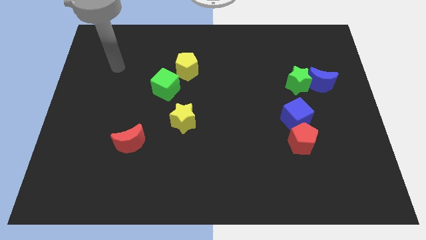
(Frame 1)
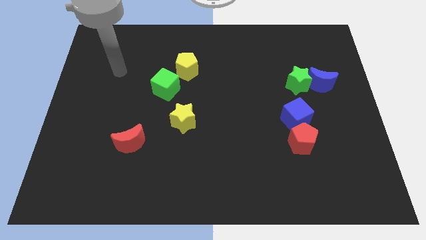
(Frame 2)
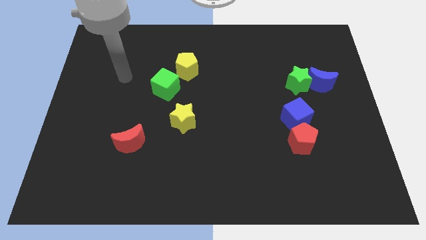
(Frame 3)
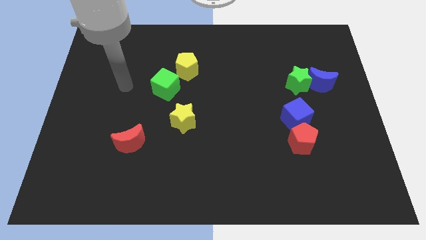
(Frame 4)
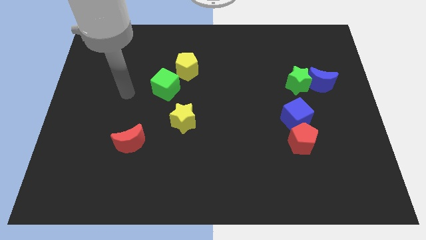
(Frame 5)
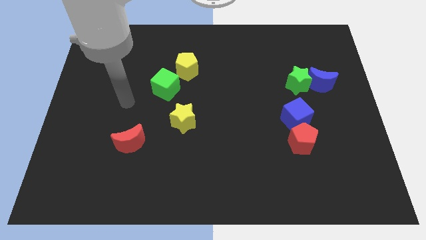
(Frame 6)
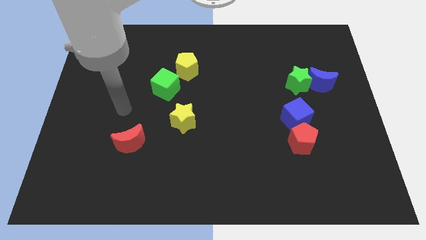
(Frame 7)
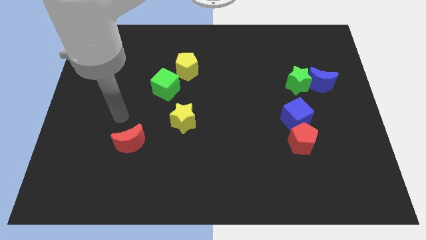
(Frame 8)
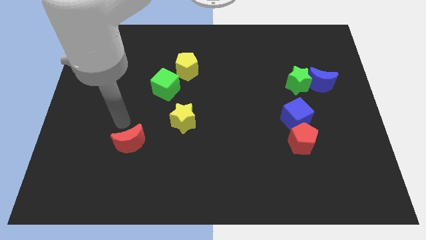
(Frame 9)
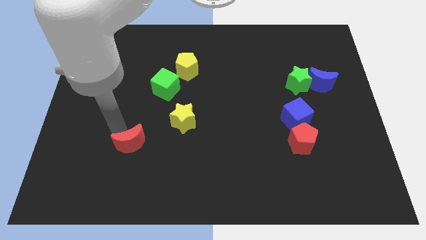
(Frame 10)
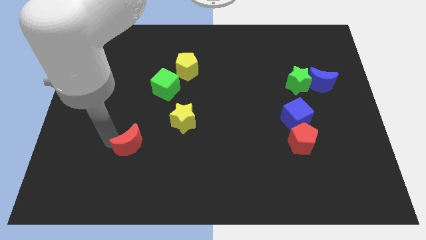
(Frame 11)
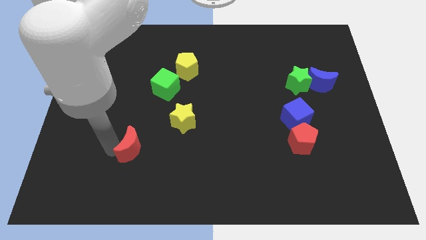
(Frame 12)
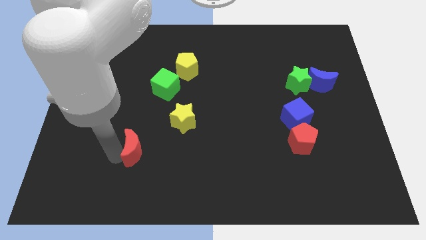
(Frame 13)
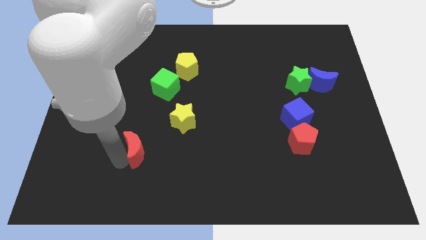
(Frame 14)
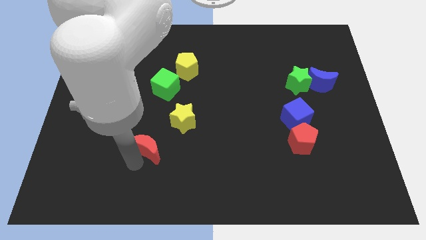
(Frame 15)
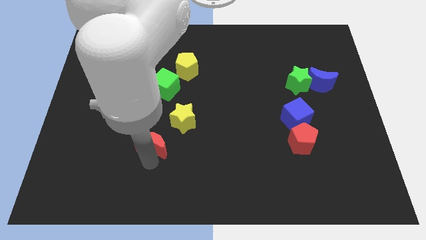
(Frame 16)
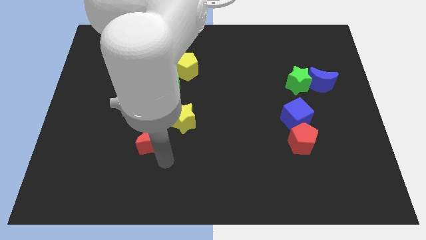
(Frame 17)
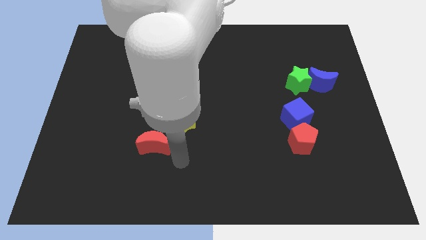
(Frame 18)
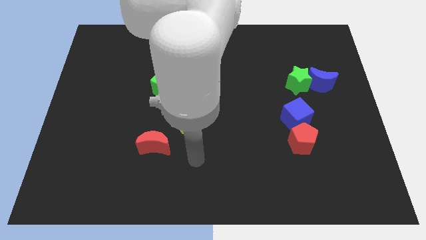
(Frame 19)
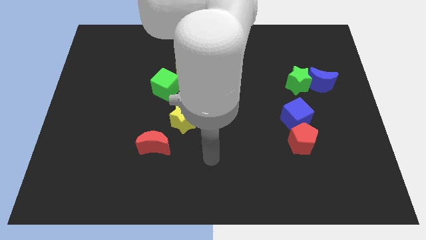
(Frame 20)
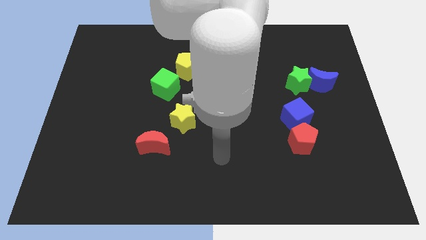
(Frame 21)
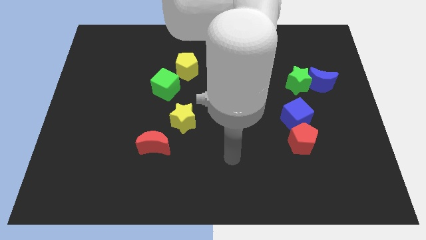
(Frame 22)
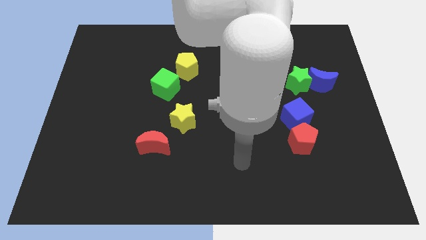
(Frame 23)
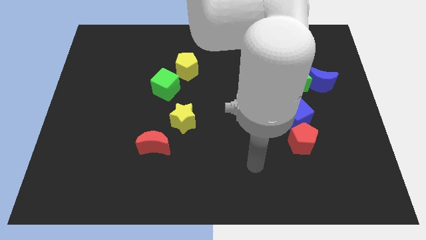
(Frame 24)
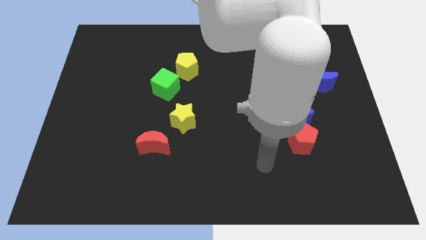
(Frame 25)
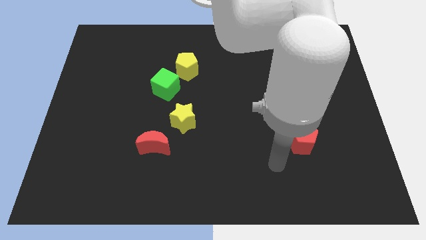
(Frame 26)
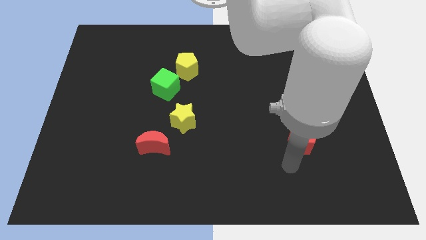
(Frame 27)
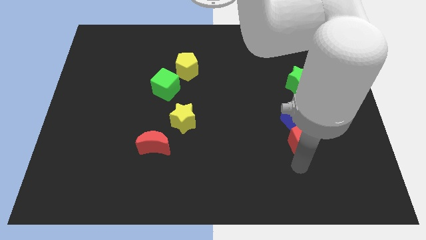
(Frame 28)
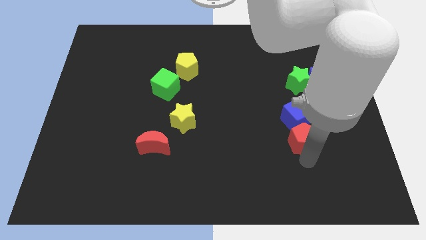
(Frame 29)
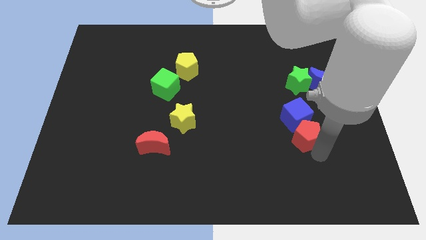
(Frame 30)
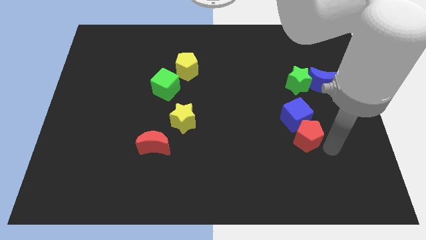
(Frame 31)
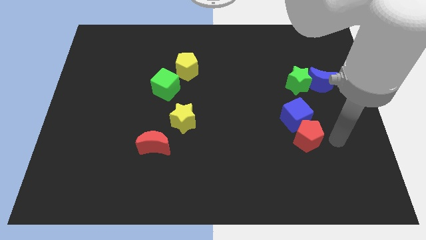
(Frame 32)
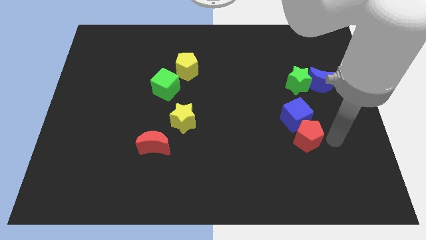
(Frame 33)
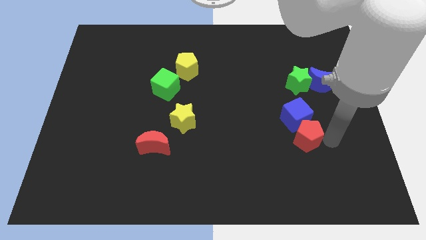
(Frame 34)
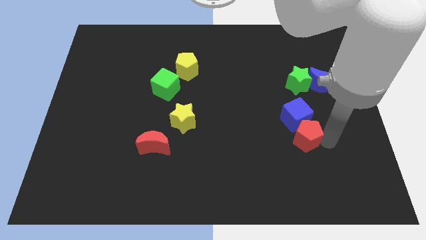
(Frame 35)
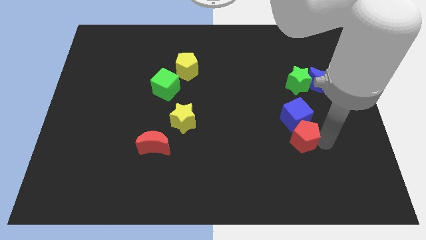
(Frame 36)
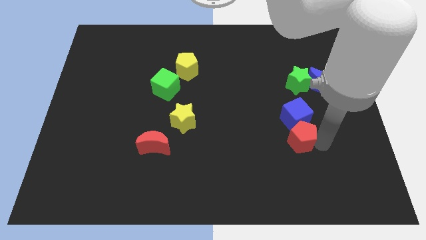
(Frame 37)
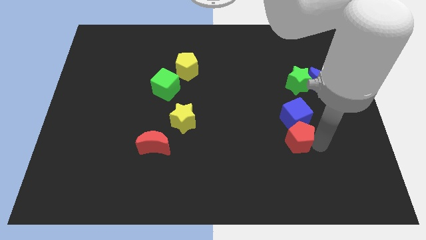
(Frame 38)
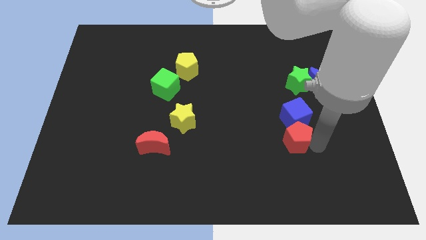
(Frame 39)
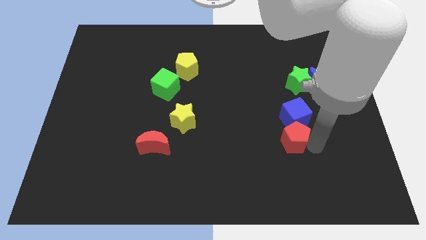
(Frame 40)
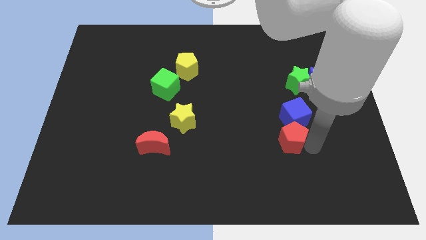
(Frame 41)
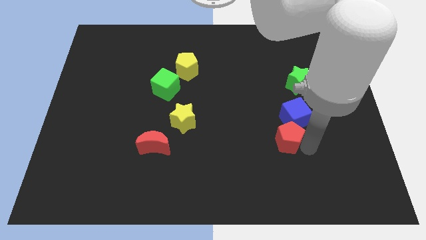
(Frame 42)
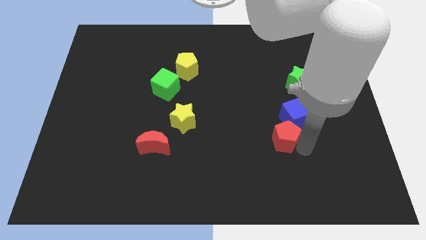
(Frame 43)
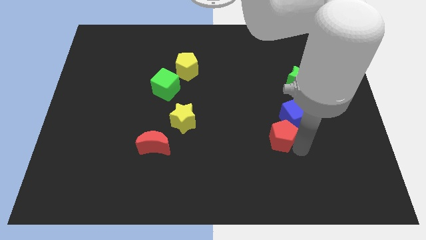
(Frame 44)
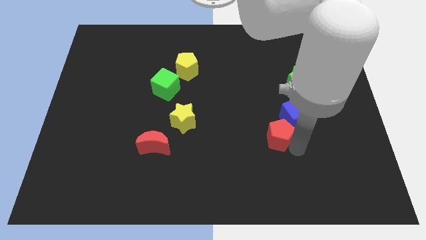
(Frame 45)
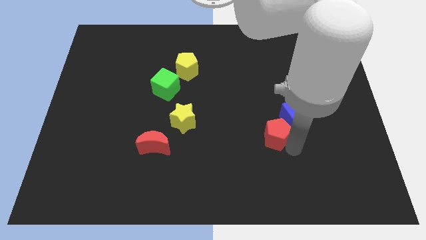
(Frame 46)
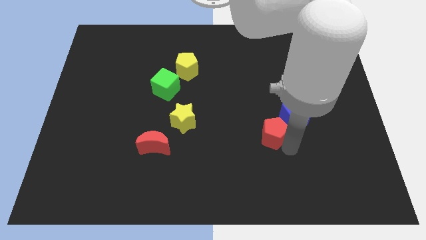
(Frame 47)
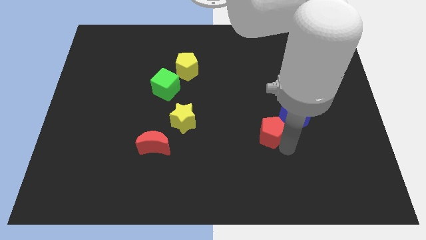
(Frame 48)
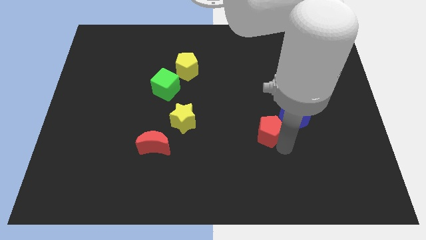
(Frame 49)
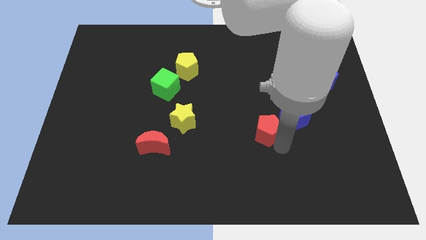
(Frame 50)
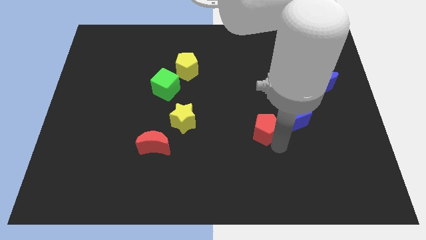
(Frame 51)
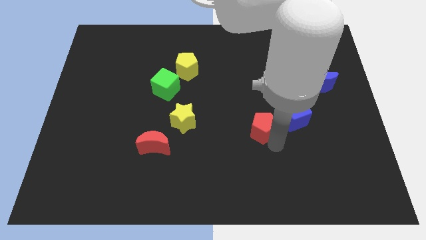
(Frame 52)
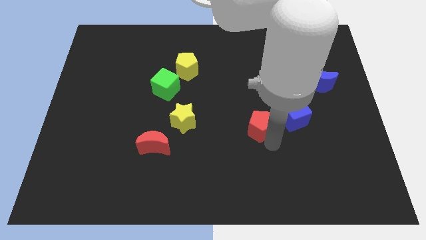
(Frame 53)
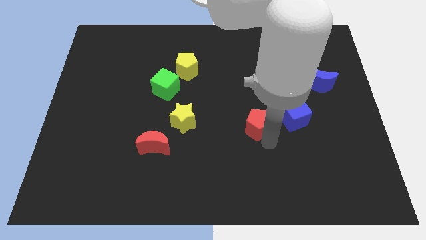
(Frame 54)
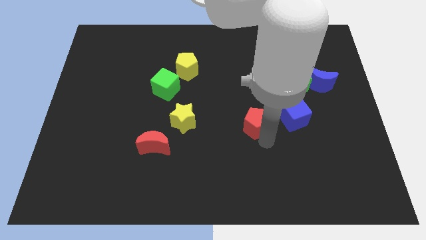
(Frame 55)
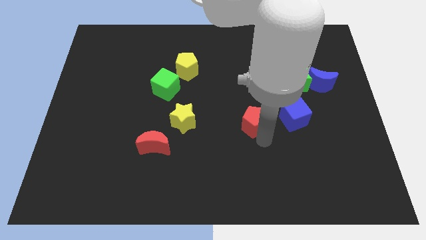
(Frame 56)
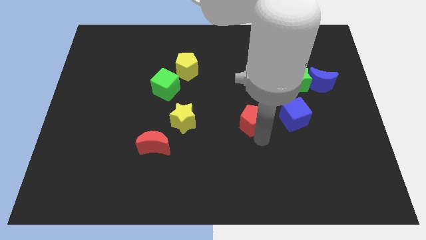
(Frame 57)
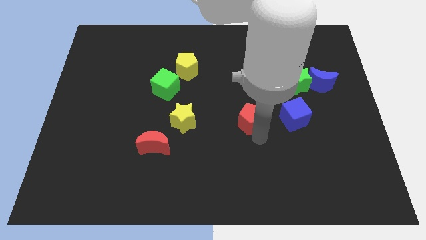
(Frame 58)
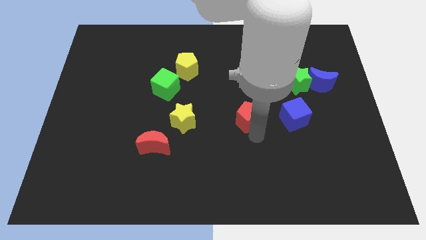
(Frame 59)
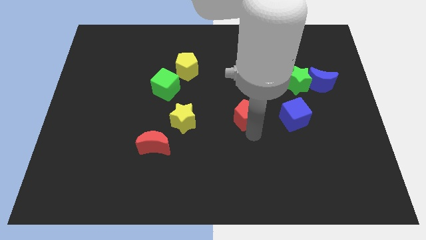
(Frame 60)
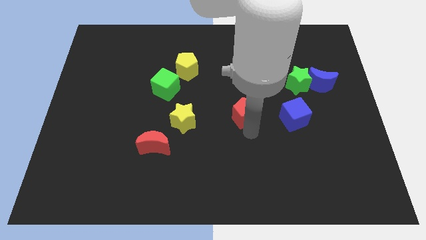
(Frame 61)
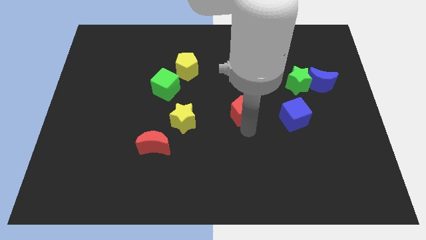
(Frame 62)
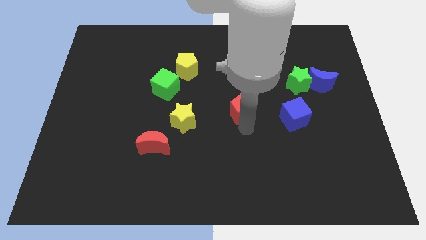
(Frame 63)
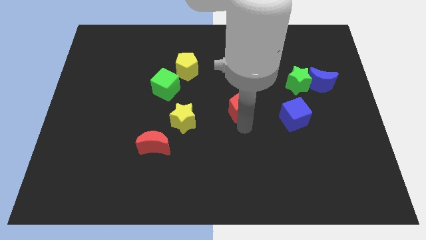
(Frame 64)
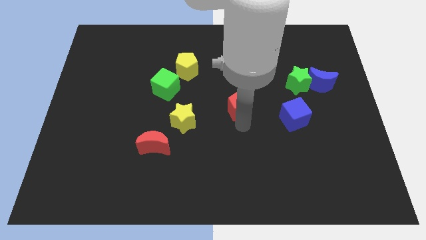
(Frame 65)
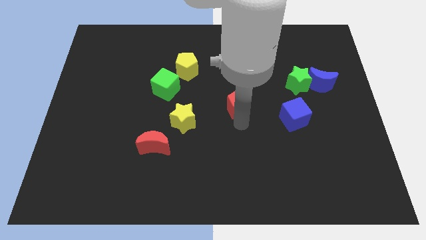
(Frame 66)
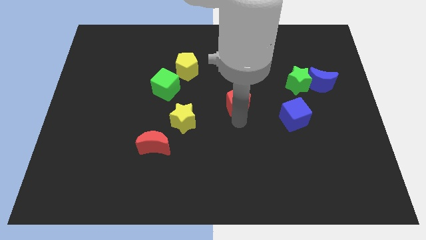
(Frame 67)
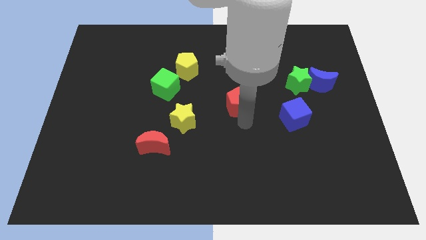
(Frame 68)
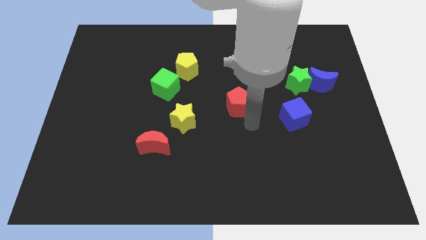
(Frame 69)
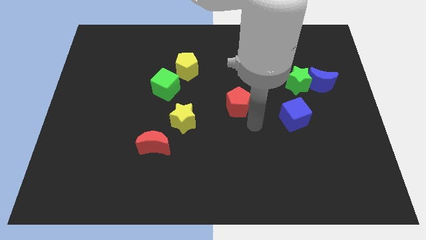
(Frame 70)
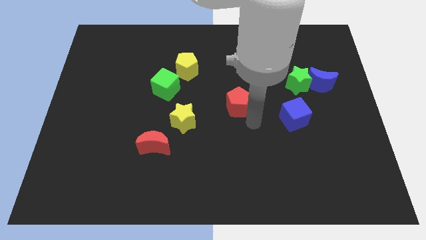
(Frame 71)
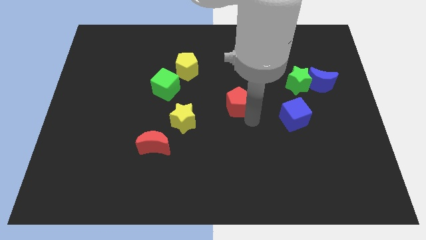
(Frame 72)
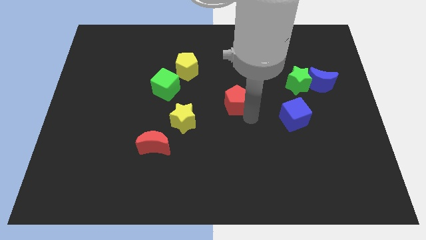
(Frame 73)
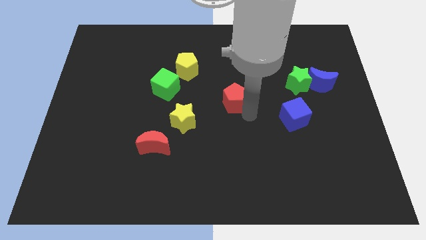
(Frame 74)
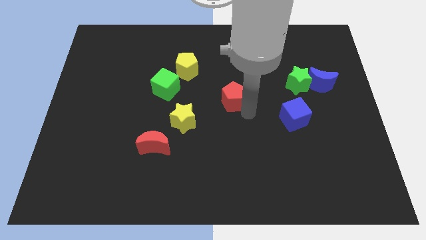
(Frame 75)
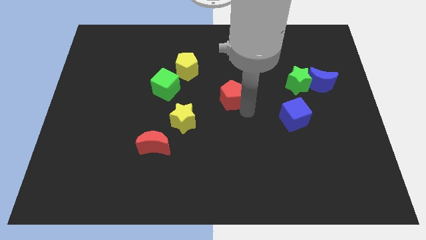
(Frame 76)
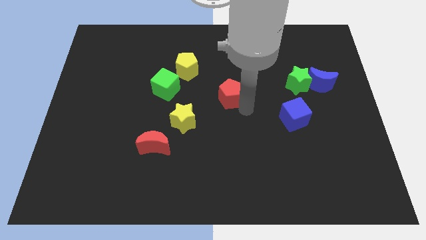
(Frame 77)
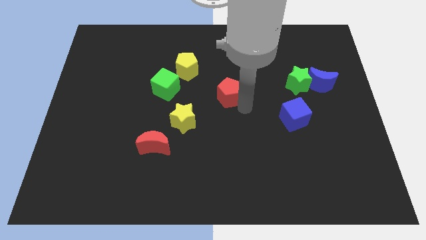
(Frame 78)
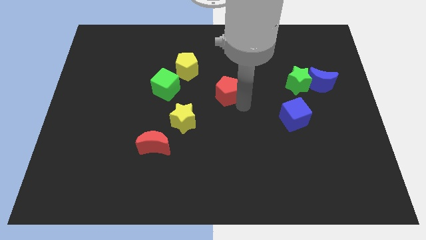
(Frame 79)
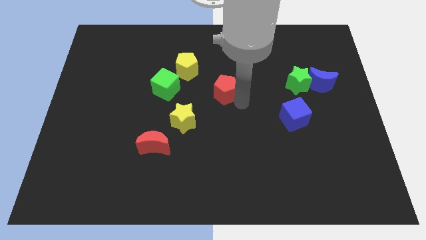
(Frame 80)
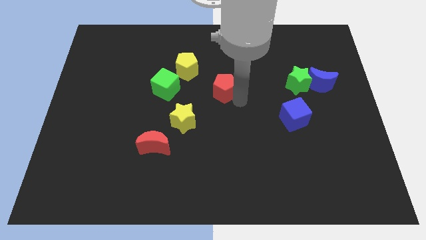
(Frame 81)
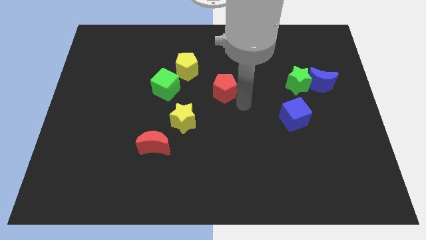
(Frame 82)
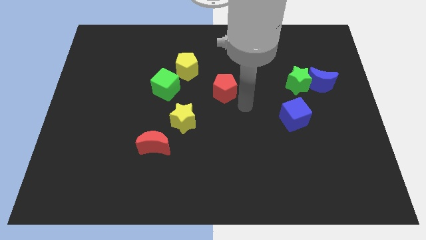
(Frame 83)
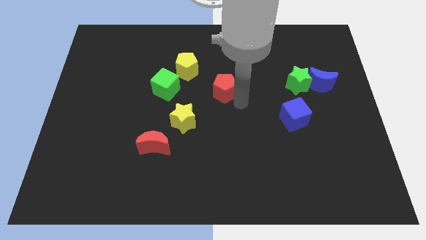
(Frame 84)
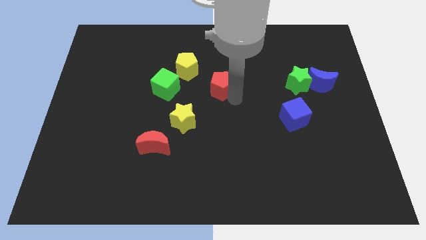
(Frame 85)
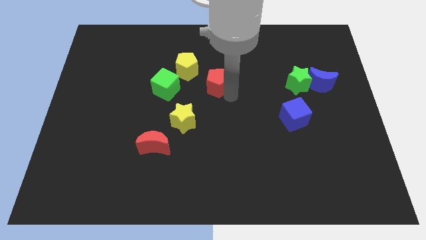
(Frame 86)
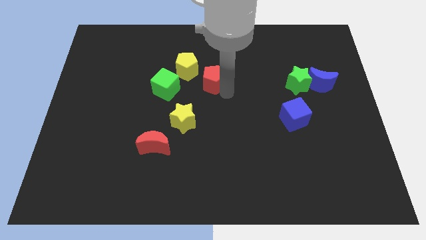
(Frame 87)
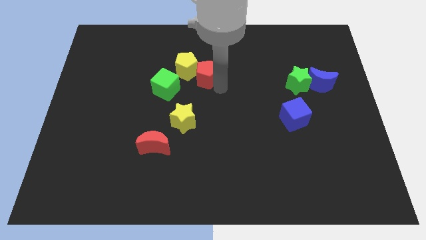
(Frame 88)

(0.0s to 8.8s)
push the red pentagon towards the yellow pentagon
